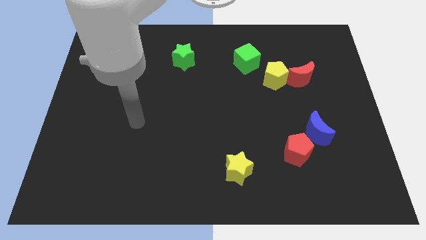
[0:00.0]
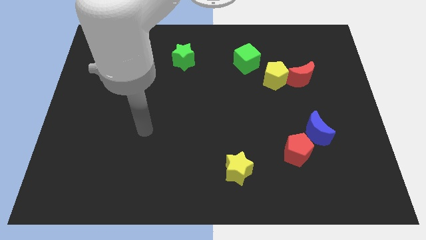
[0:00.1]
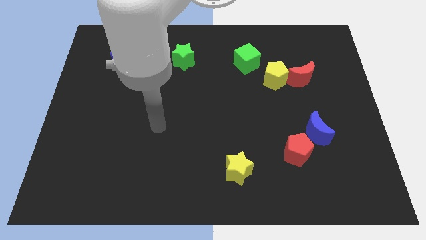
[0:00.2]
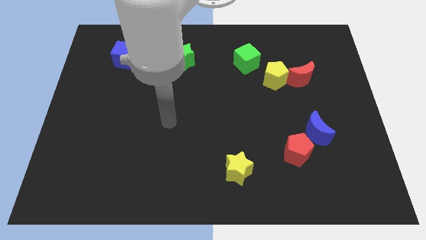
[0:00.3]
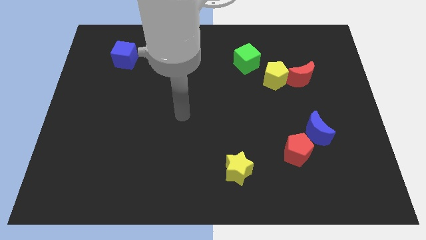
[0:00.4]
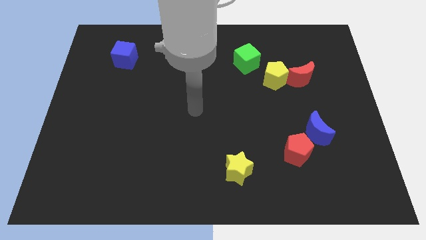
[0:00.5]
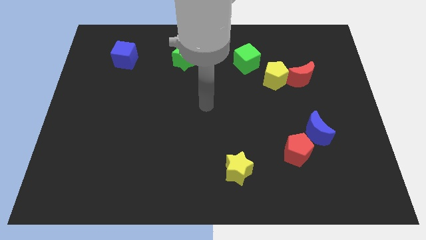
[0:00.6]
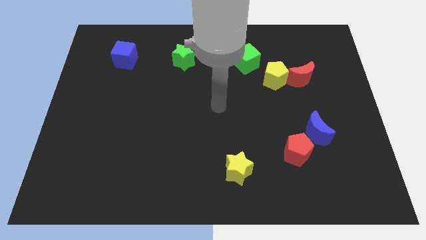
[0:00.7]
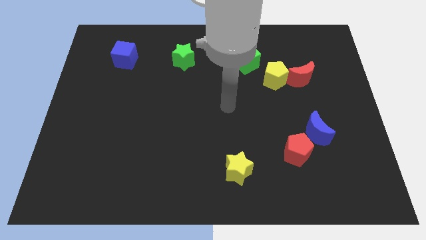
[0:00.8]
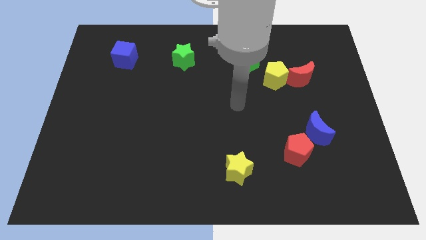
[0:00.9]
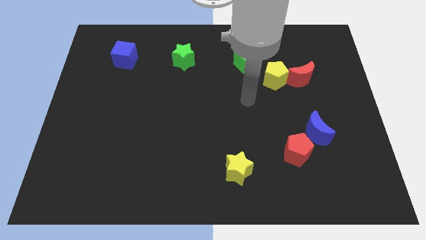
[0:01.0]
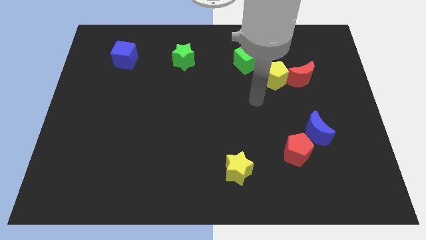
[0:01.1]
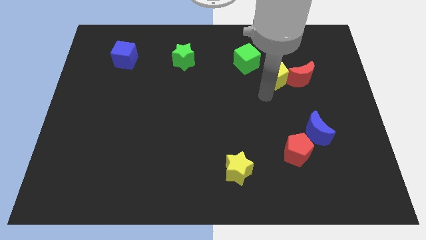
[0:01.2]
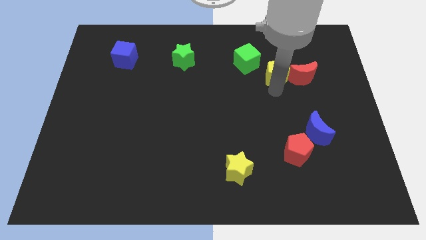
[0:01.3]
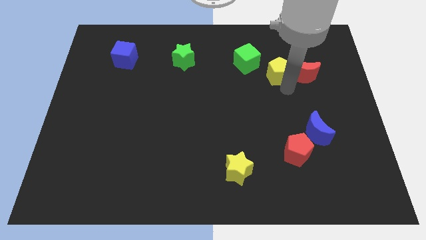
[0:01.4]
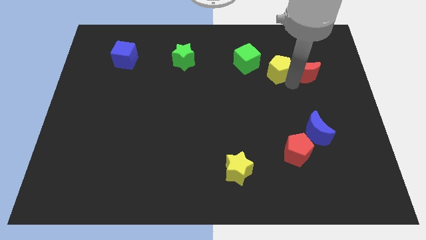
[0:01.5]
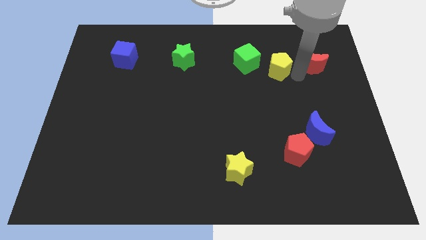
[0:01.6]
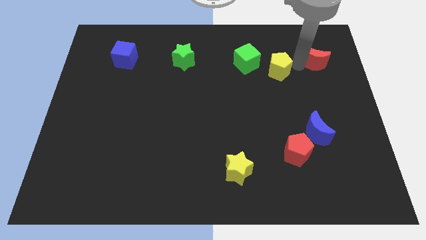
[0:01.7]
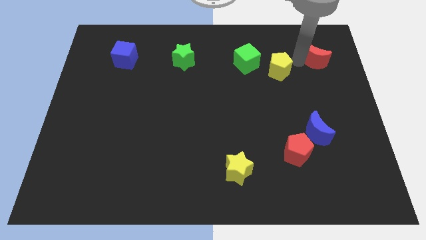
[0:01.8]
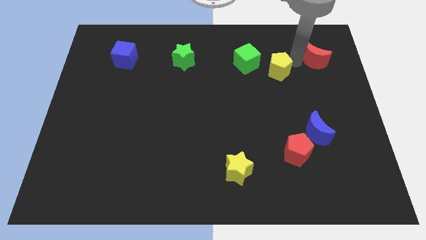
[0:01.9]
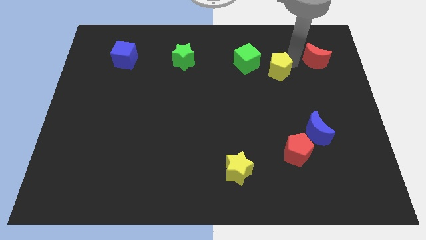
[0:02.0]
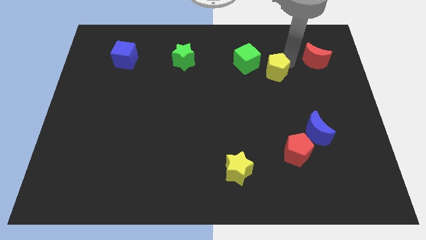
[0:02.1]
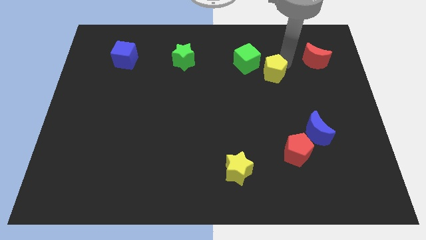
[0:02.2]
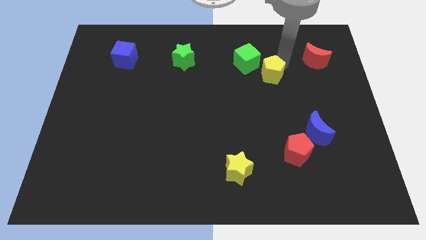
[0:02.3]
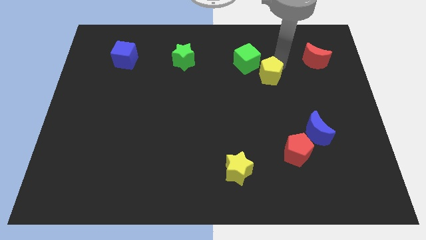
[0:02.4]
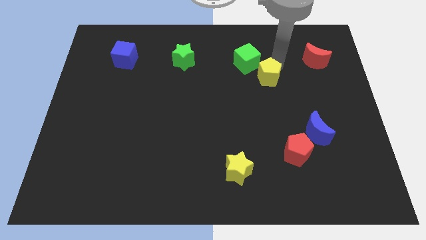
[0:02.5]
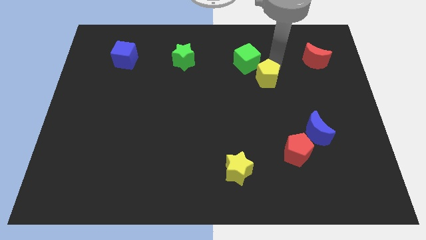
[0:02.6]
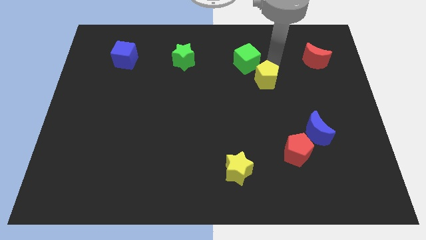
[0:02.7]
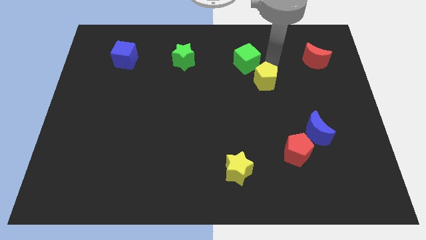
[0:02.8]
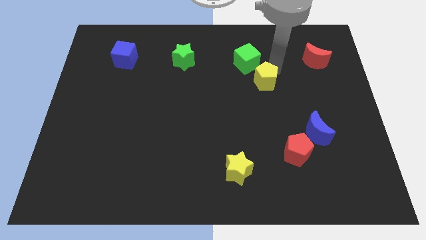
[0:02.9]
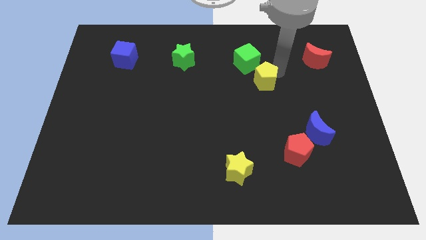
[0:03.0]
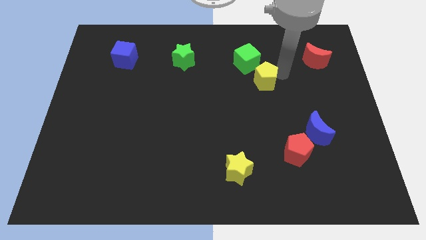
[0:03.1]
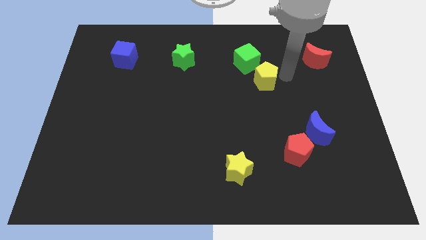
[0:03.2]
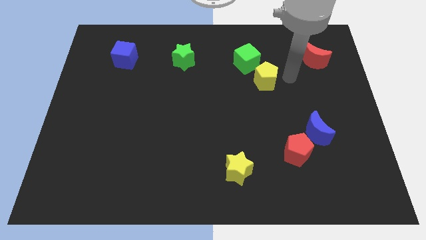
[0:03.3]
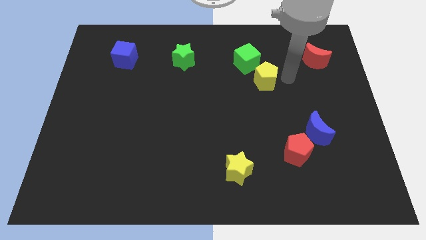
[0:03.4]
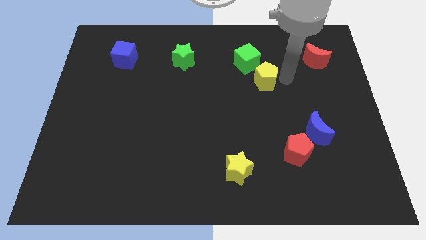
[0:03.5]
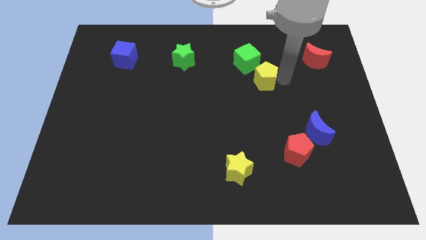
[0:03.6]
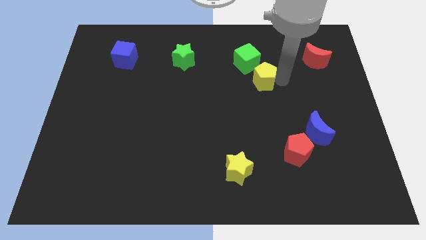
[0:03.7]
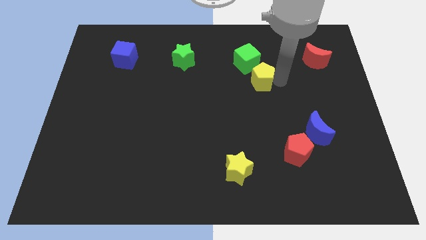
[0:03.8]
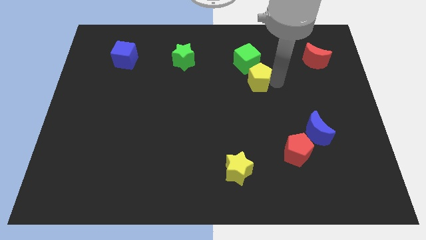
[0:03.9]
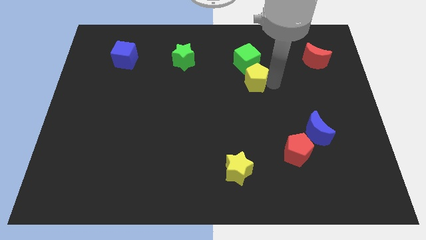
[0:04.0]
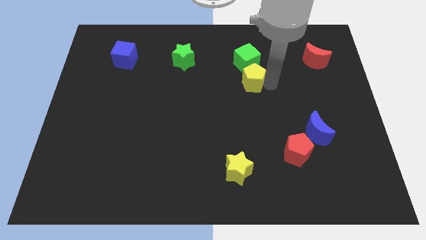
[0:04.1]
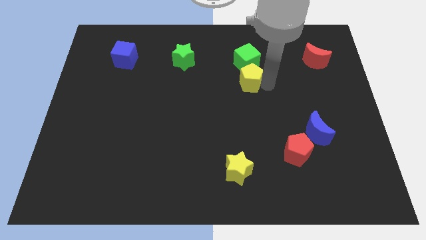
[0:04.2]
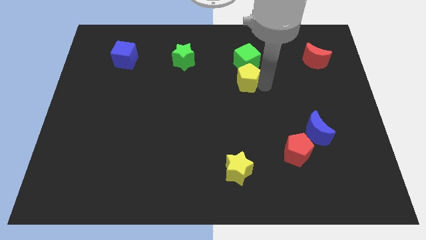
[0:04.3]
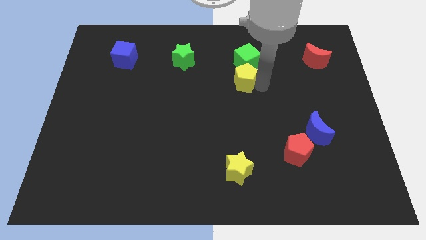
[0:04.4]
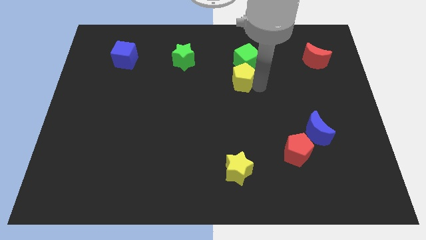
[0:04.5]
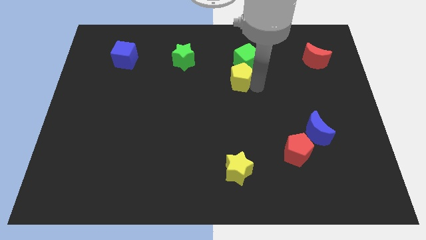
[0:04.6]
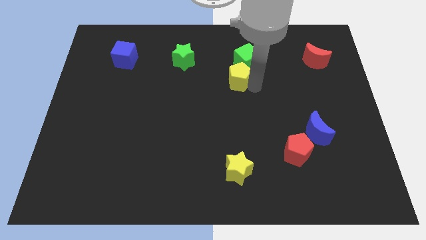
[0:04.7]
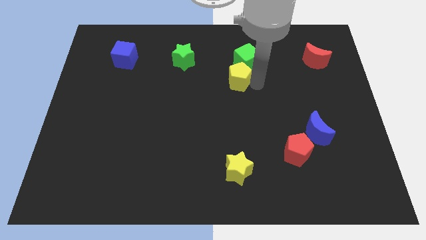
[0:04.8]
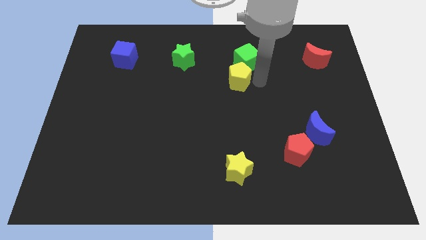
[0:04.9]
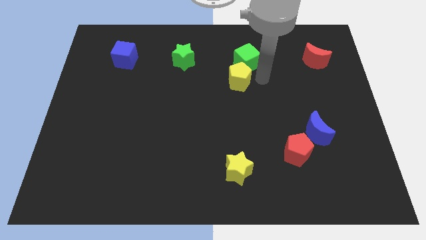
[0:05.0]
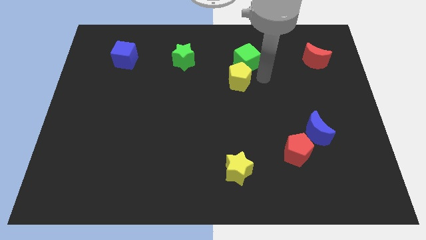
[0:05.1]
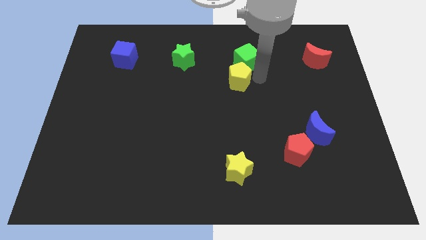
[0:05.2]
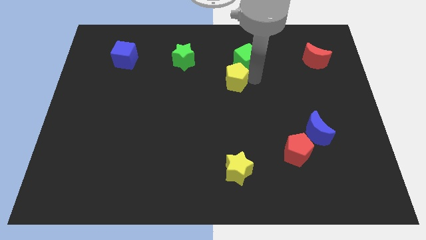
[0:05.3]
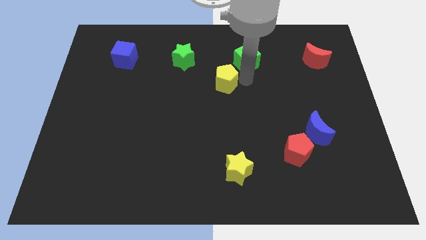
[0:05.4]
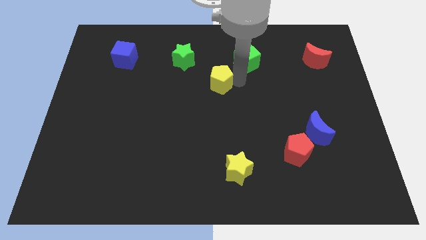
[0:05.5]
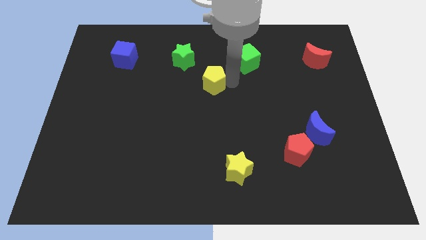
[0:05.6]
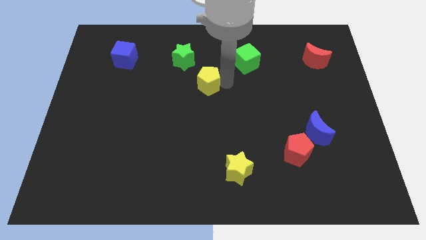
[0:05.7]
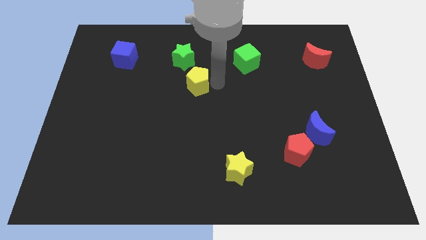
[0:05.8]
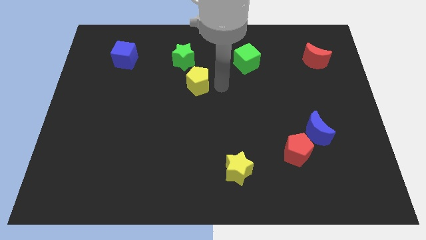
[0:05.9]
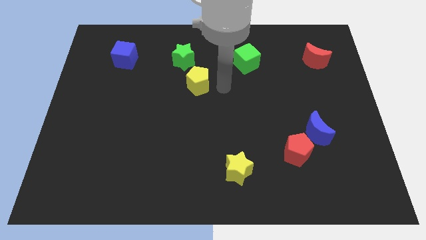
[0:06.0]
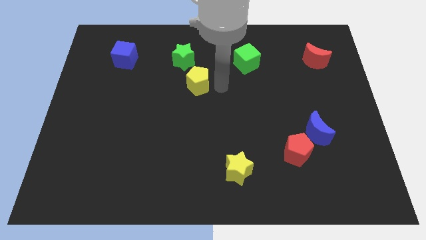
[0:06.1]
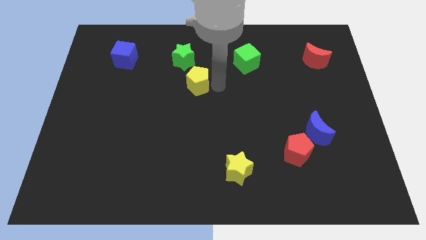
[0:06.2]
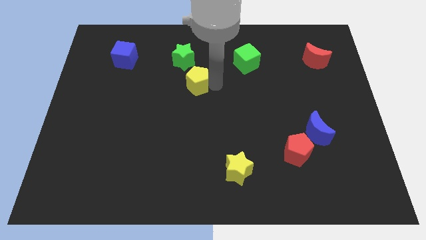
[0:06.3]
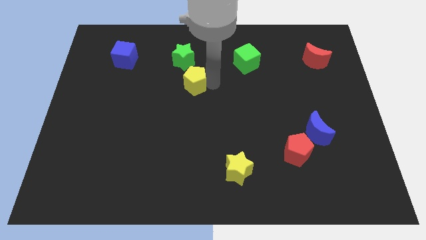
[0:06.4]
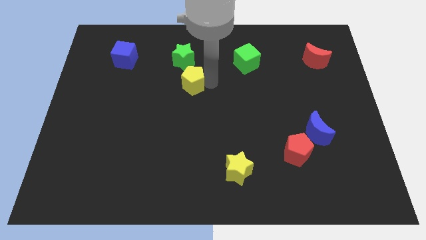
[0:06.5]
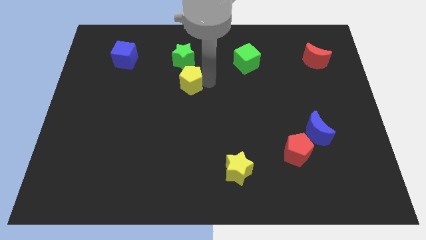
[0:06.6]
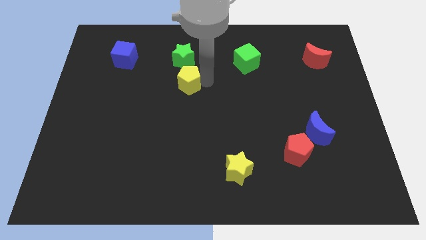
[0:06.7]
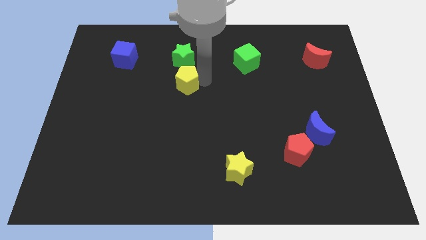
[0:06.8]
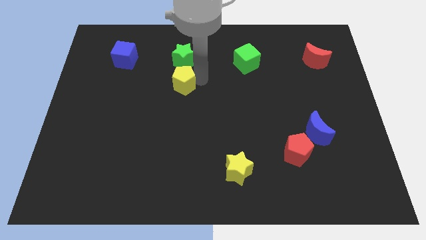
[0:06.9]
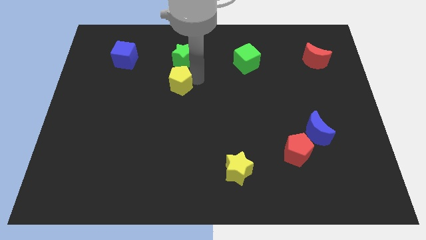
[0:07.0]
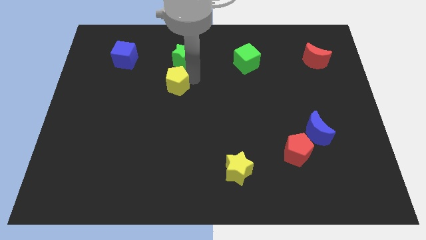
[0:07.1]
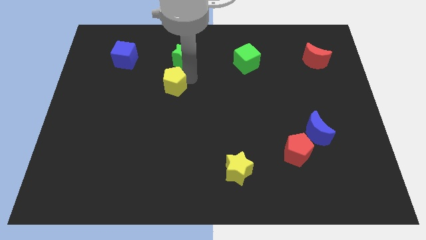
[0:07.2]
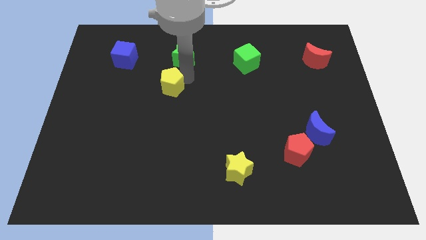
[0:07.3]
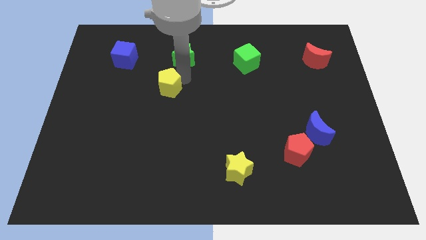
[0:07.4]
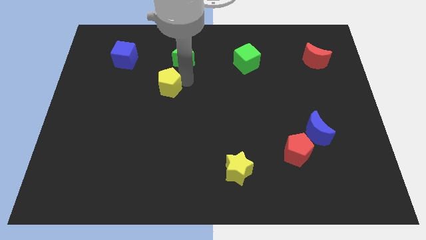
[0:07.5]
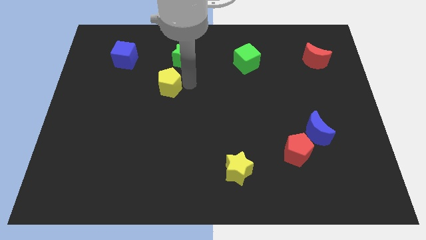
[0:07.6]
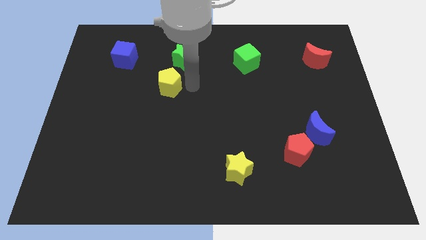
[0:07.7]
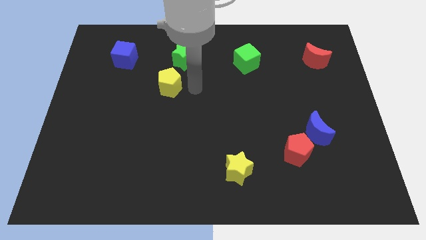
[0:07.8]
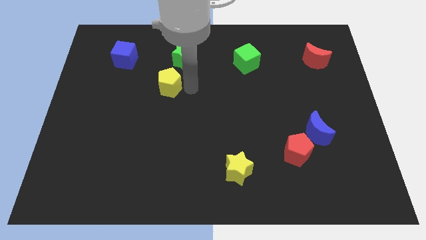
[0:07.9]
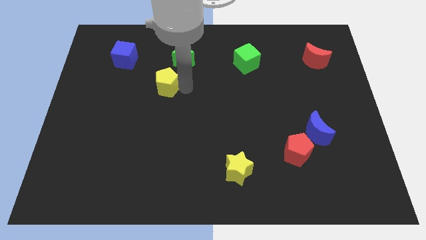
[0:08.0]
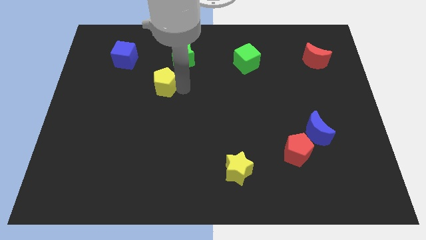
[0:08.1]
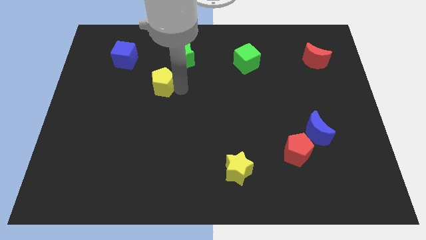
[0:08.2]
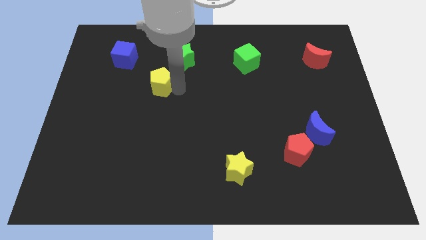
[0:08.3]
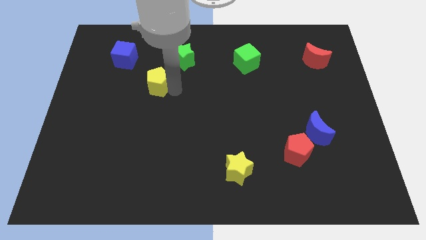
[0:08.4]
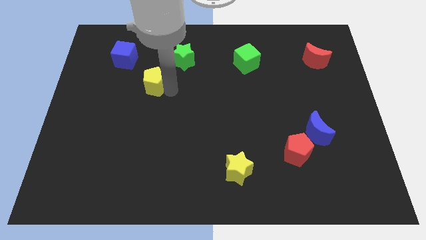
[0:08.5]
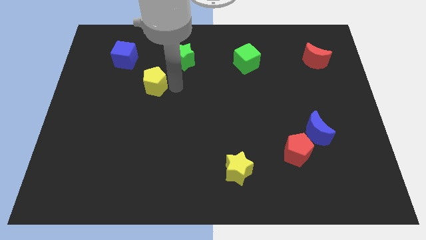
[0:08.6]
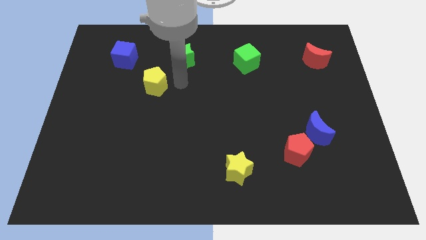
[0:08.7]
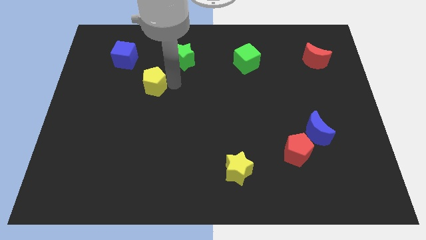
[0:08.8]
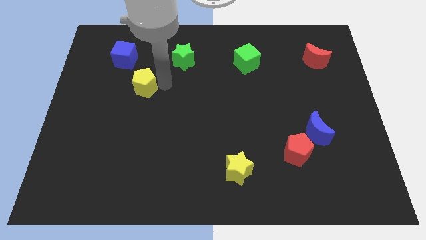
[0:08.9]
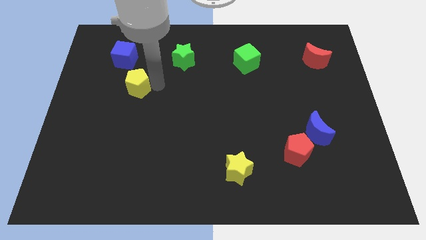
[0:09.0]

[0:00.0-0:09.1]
slide the yellow pentagon to the bottom of the blue cube
